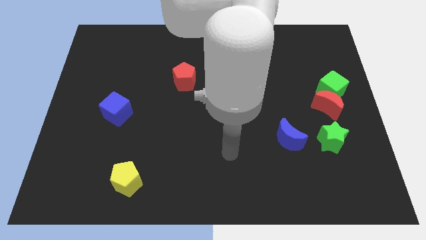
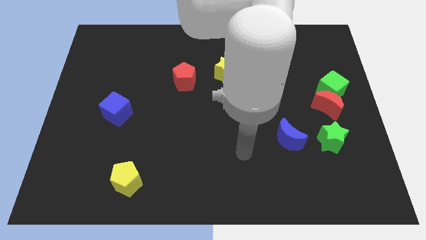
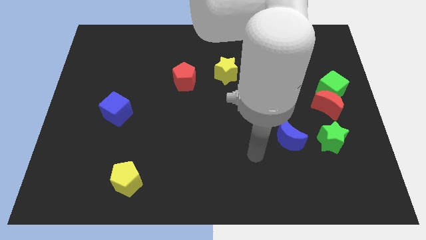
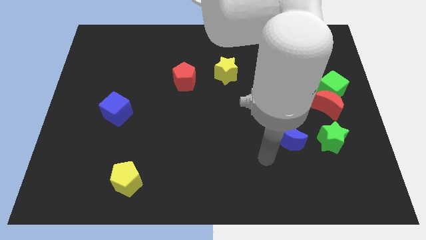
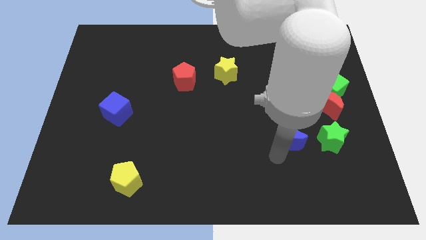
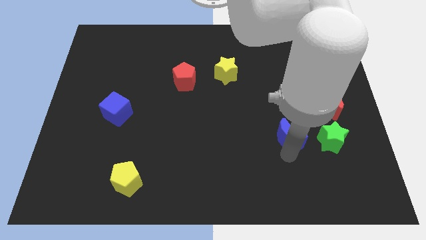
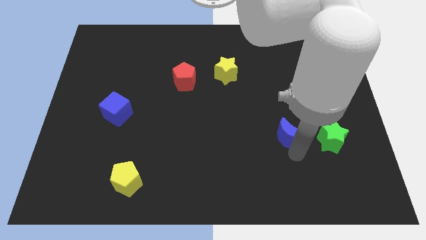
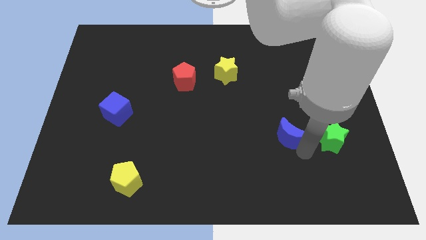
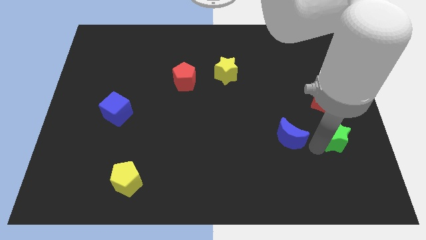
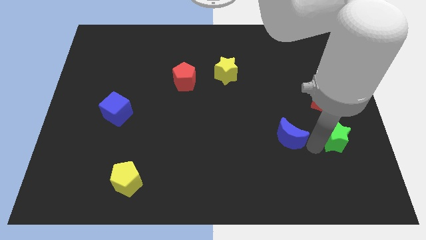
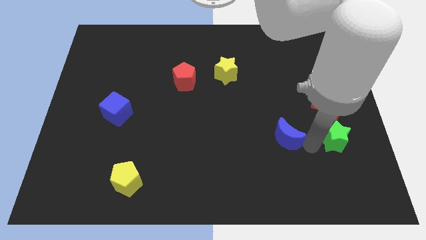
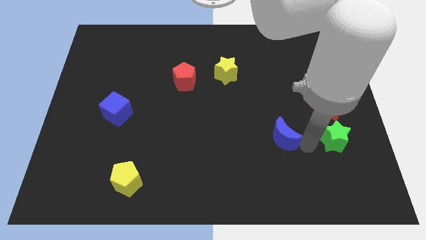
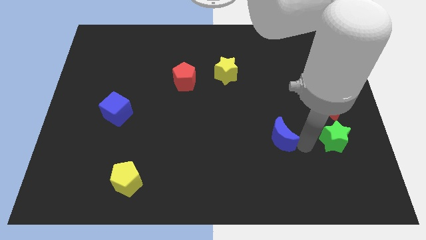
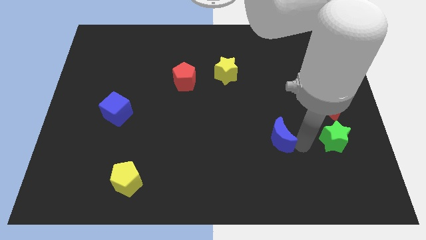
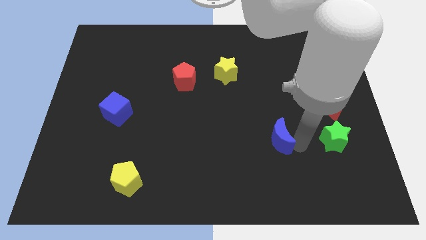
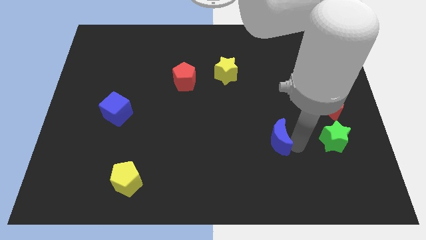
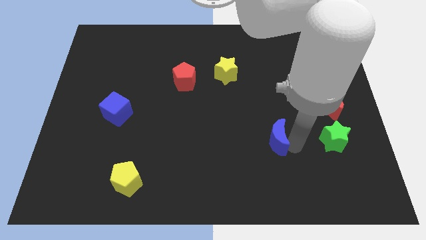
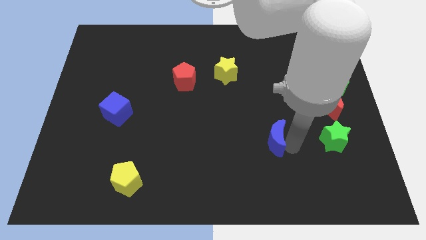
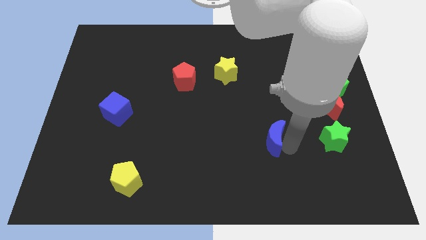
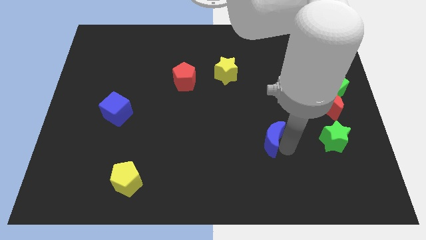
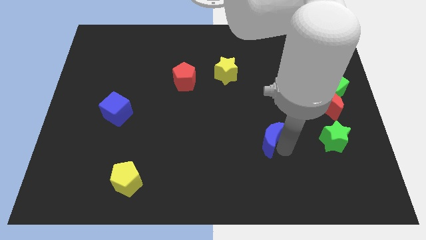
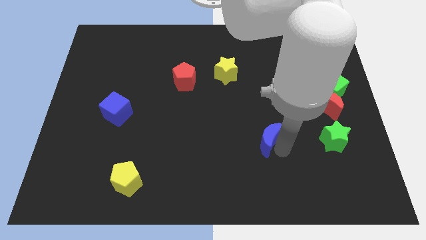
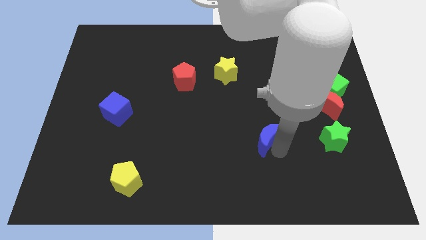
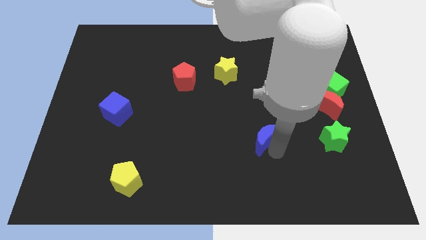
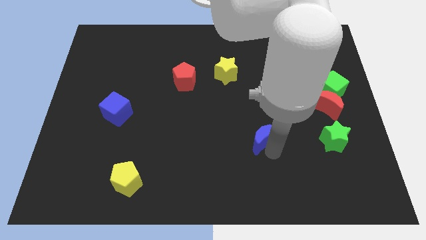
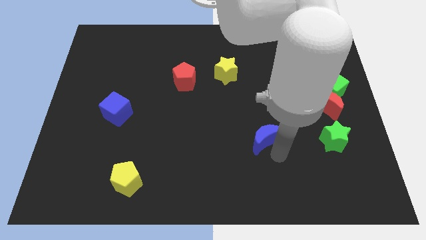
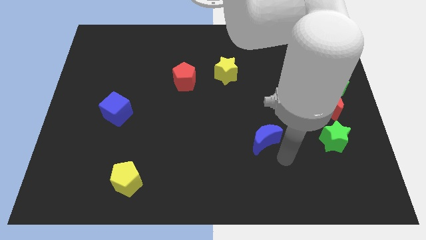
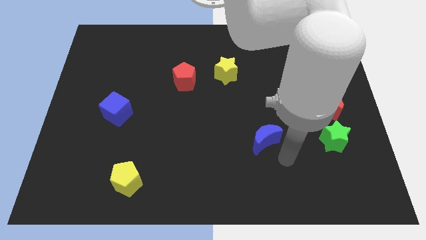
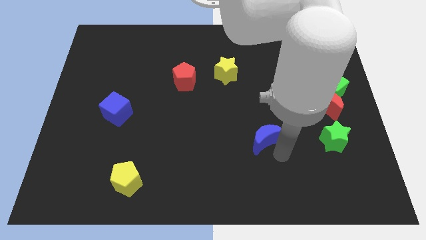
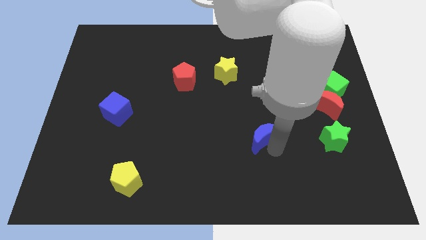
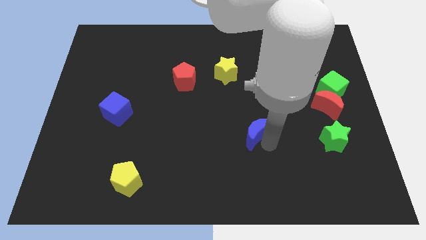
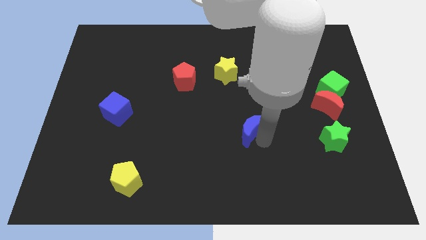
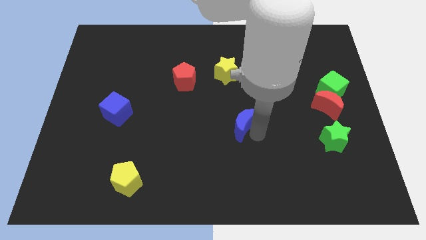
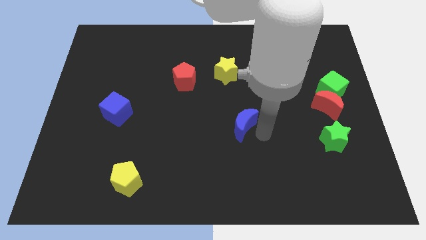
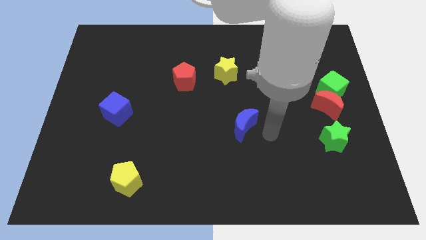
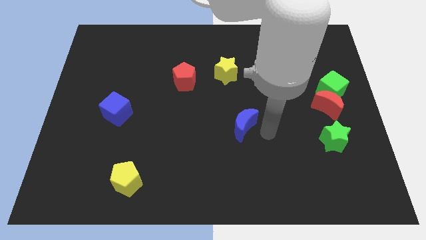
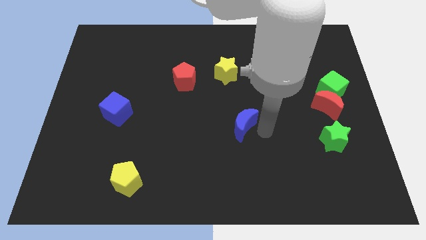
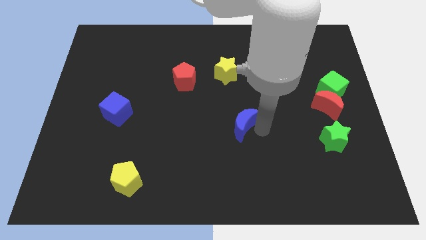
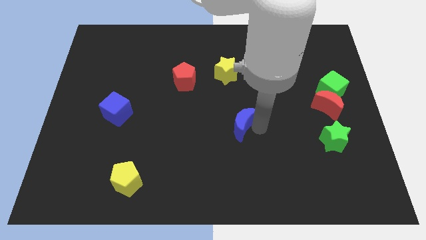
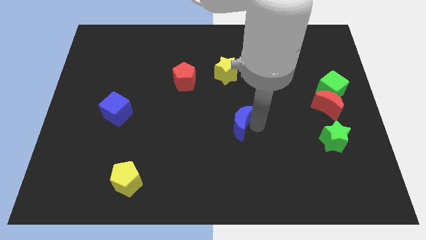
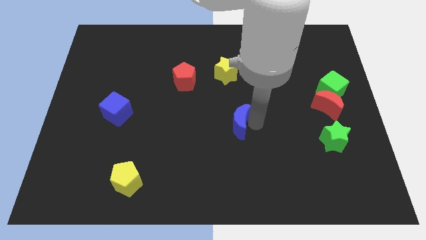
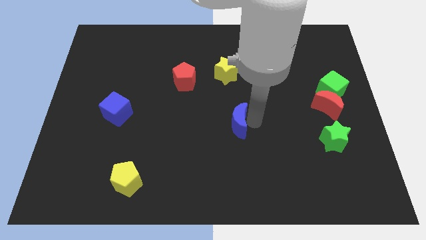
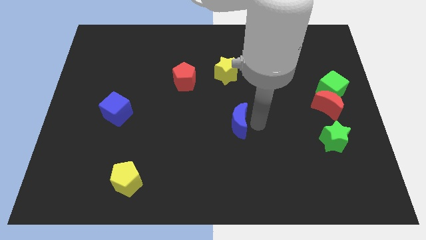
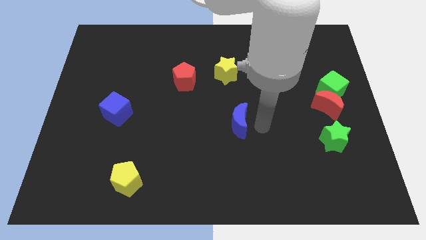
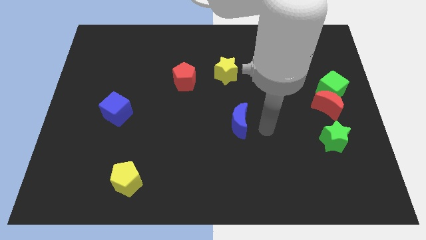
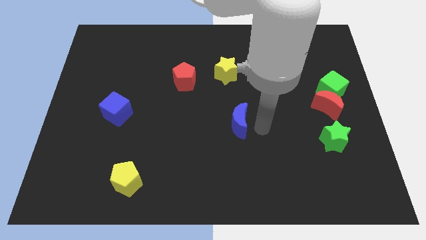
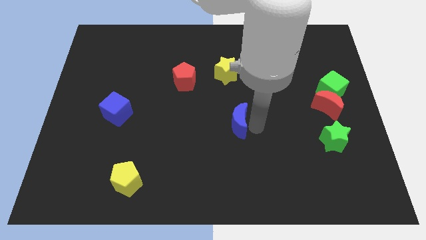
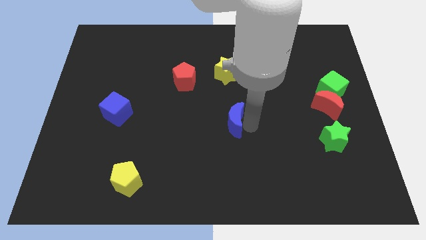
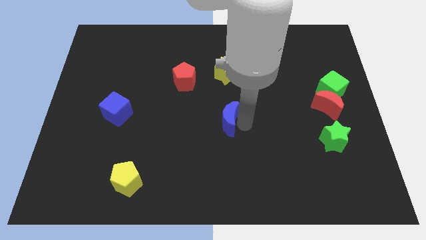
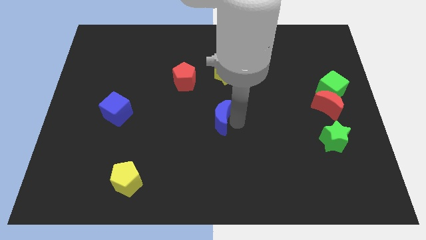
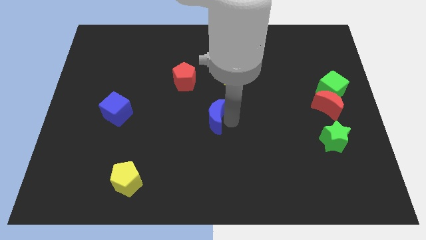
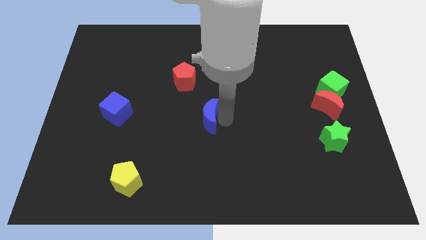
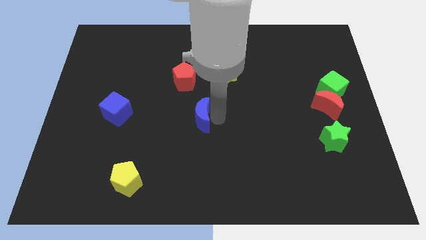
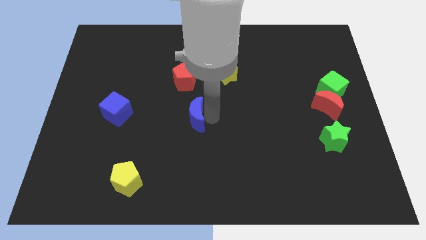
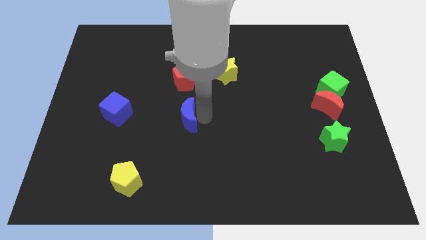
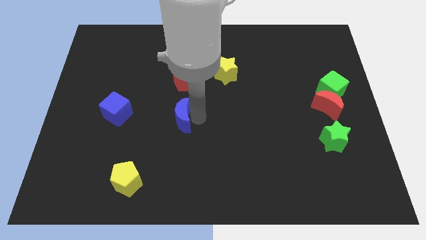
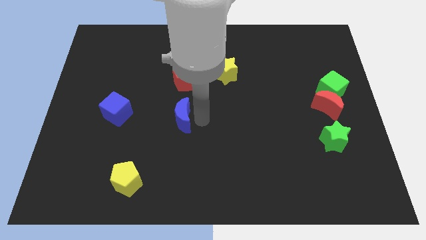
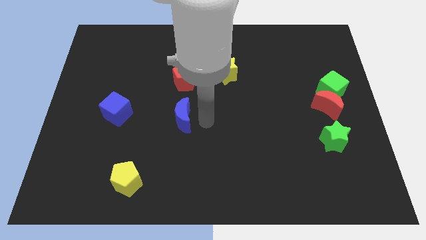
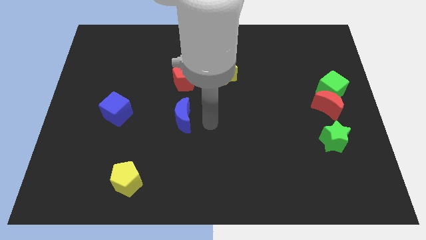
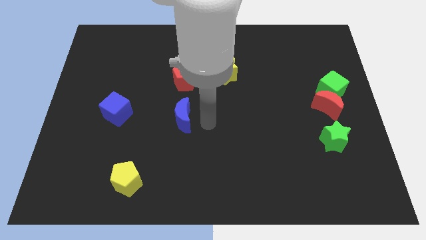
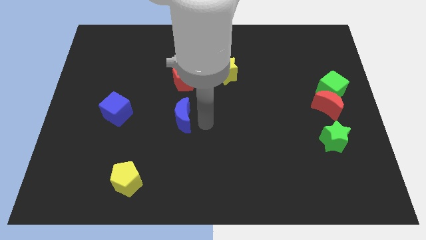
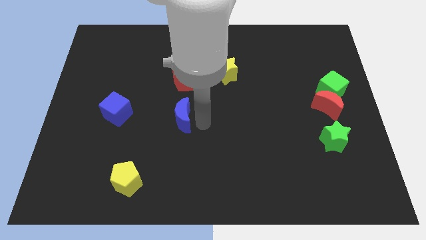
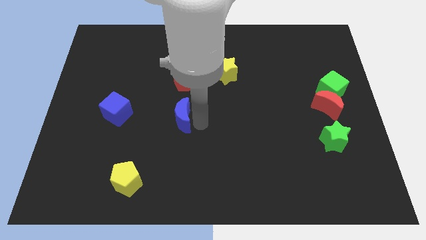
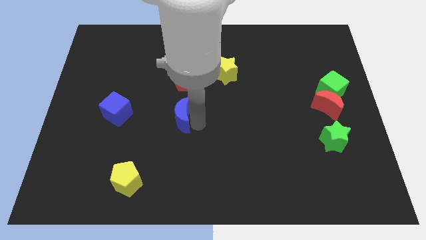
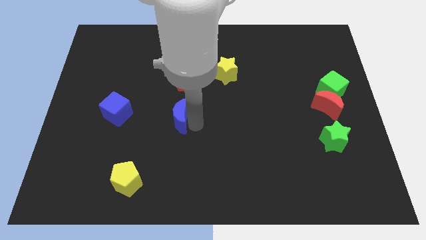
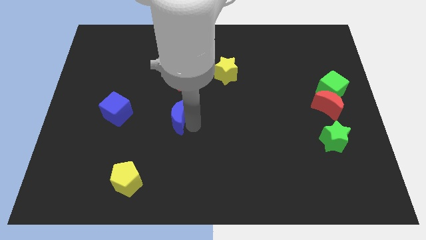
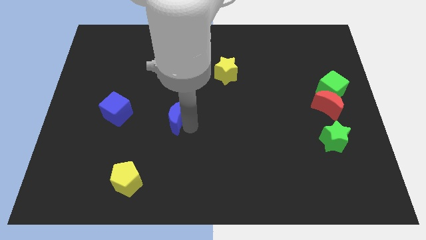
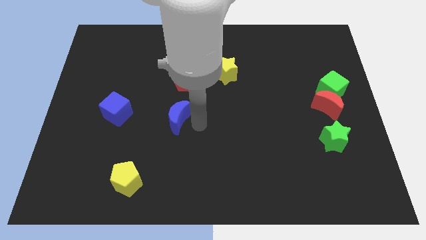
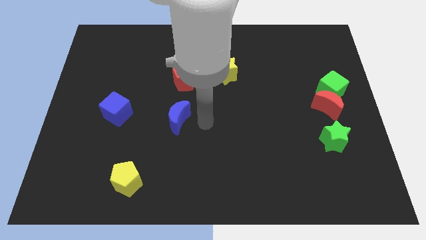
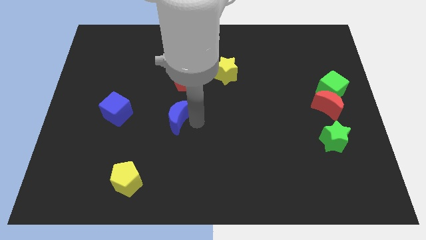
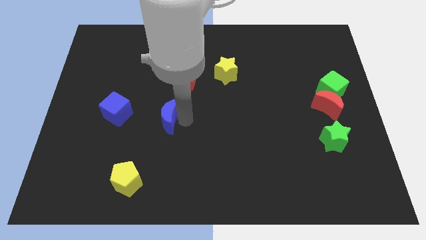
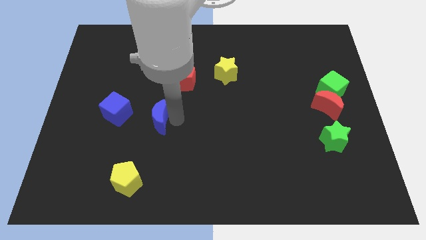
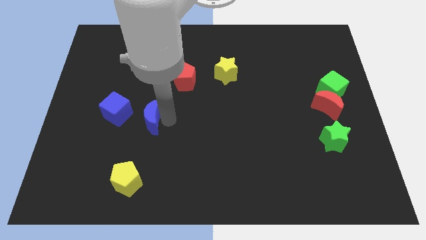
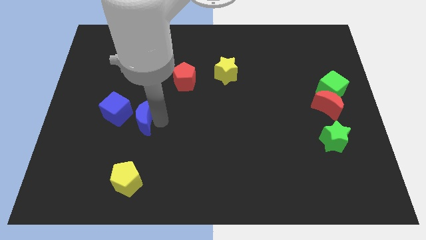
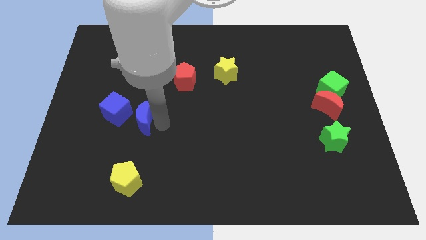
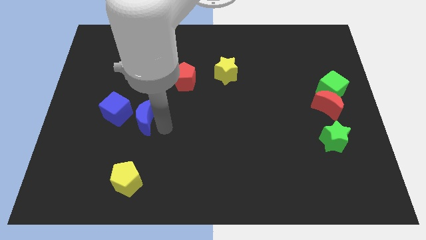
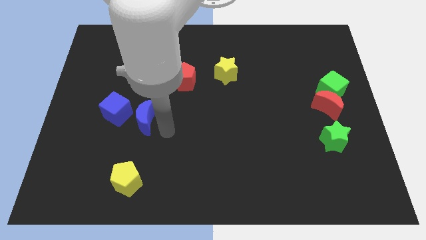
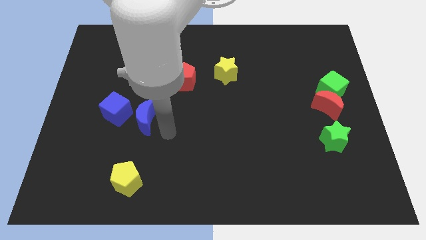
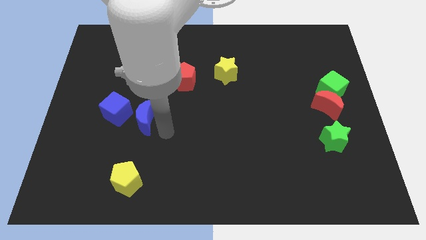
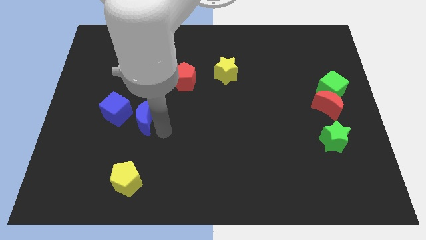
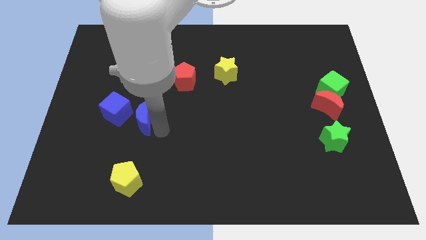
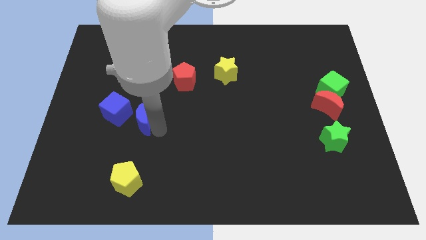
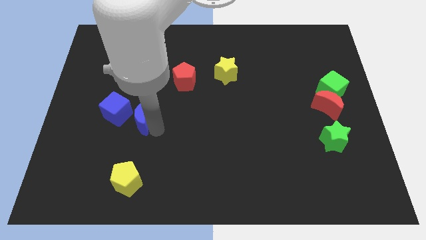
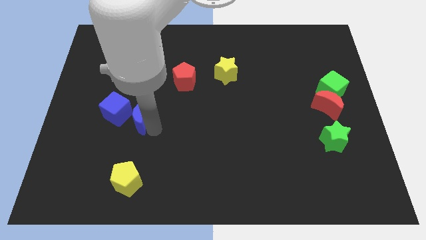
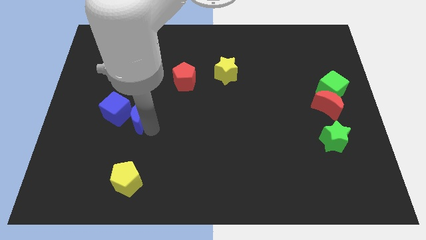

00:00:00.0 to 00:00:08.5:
push the blue moon to the blue cube
